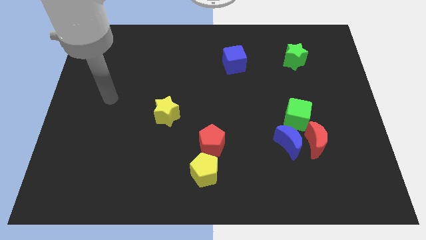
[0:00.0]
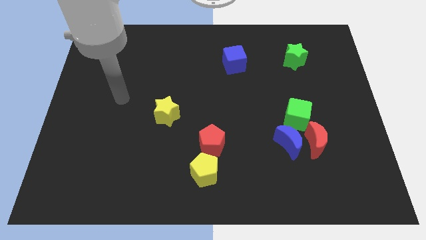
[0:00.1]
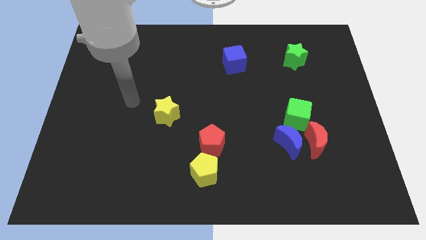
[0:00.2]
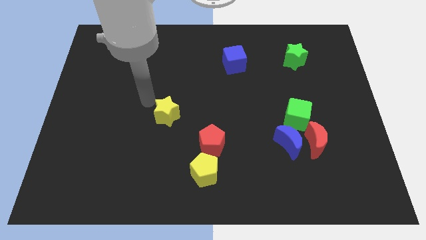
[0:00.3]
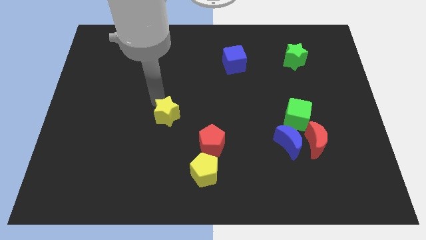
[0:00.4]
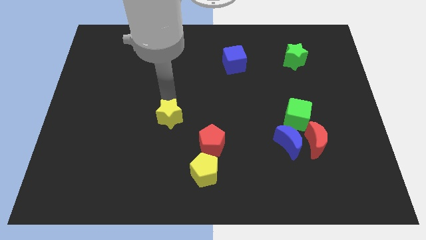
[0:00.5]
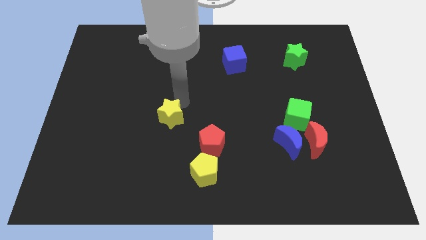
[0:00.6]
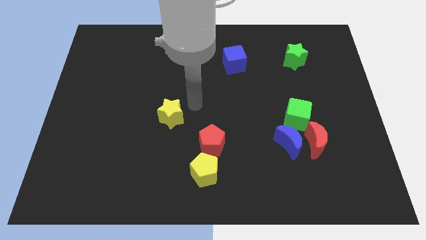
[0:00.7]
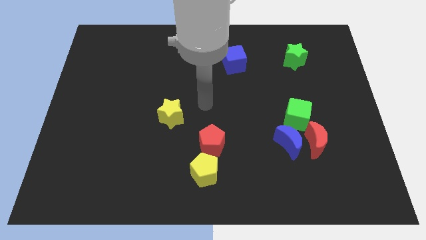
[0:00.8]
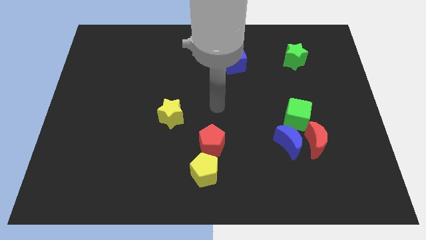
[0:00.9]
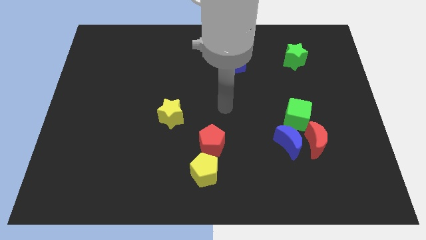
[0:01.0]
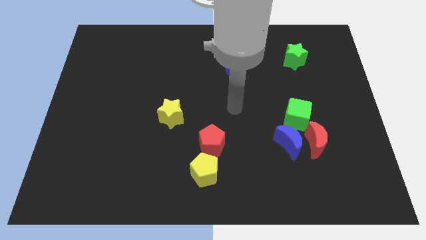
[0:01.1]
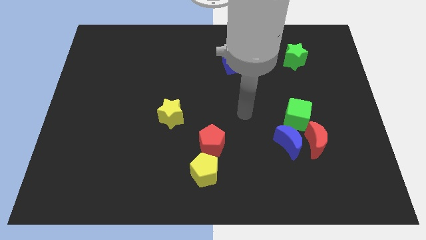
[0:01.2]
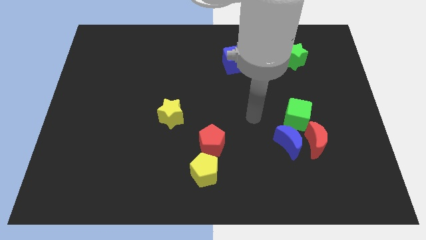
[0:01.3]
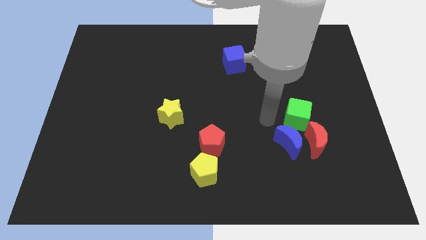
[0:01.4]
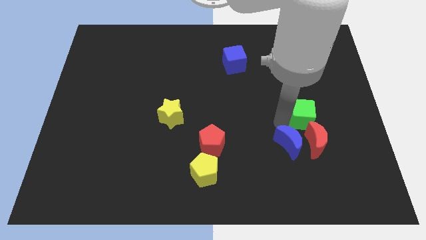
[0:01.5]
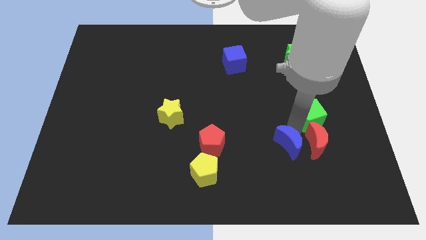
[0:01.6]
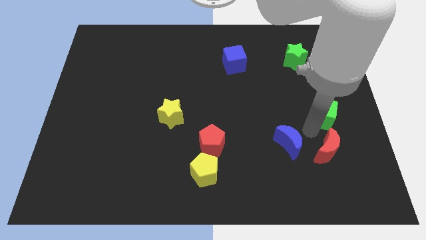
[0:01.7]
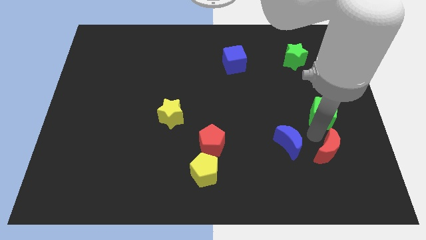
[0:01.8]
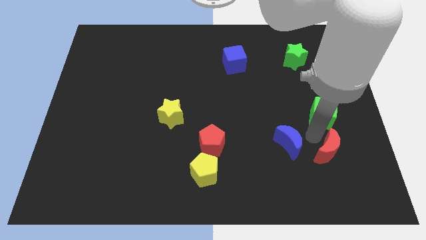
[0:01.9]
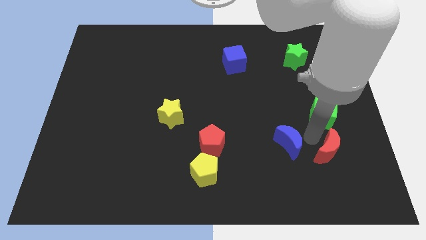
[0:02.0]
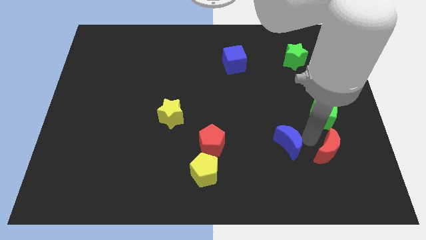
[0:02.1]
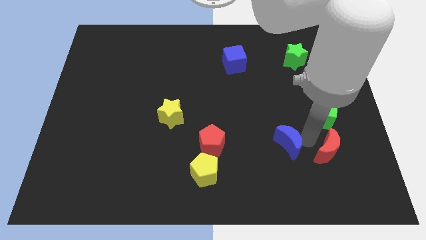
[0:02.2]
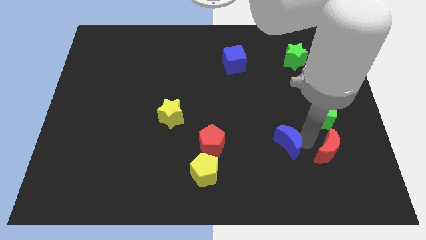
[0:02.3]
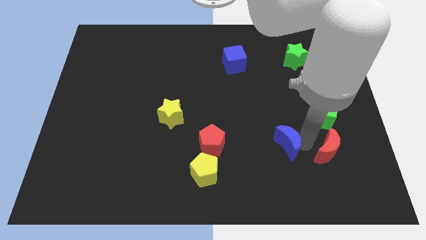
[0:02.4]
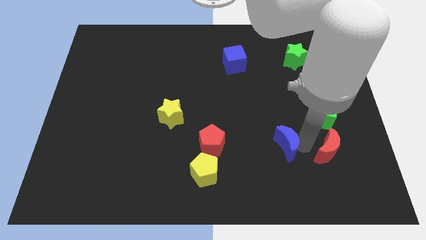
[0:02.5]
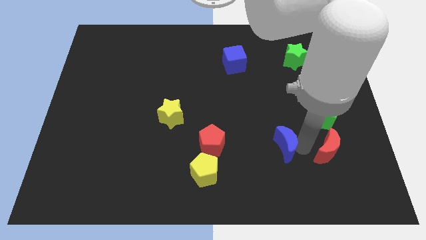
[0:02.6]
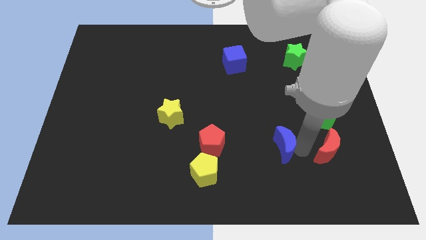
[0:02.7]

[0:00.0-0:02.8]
separate the blue moon from the red moon and green cube

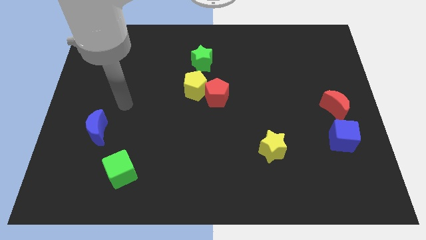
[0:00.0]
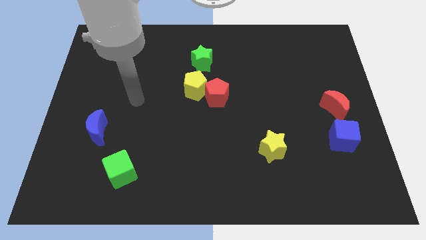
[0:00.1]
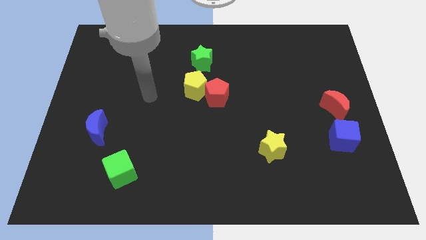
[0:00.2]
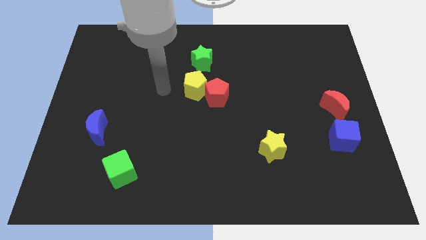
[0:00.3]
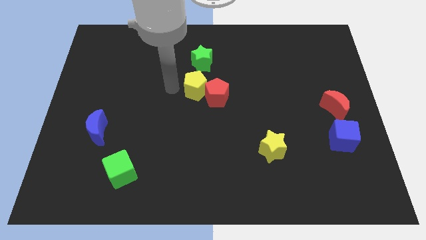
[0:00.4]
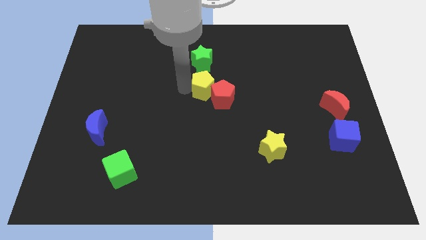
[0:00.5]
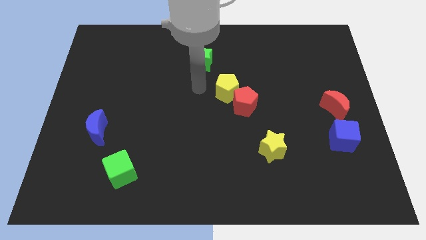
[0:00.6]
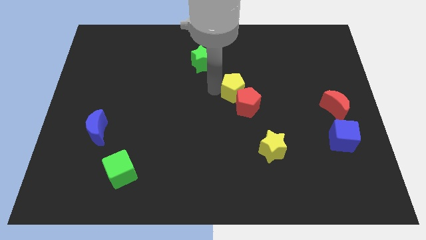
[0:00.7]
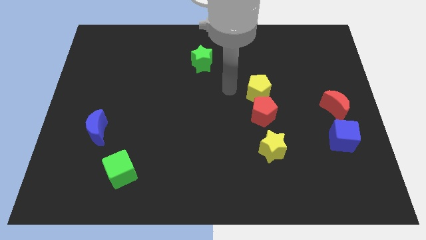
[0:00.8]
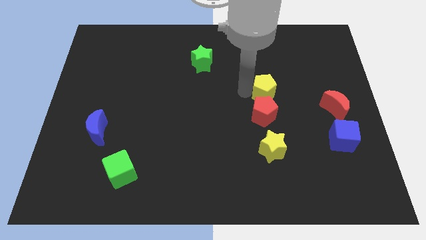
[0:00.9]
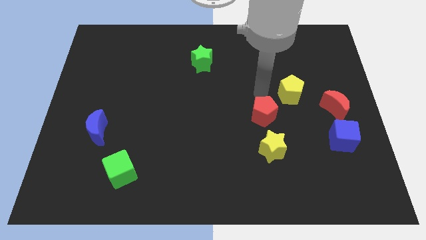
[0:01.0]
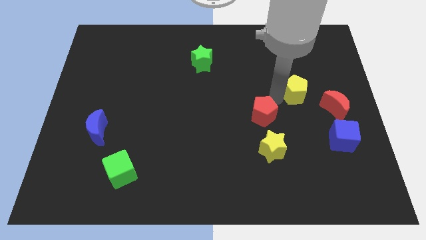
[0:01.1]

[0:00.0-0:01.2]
pull the red pentagon apart from the yellow pentagon

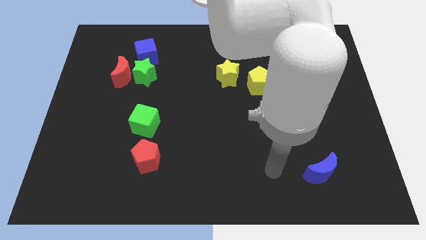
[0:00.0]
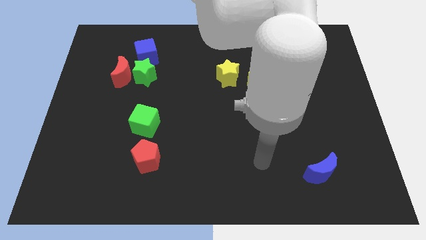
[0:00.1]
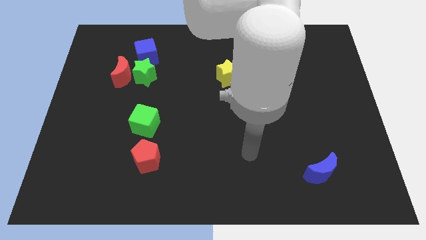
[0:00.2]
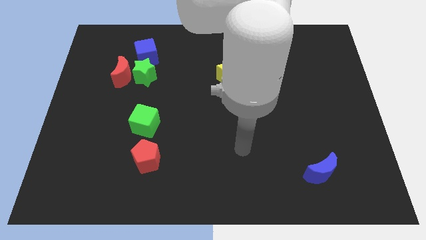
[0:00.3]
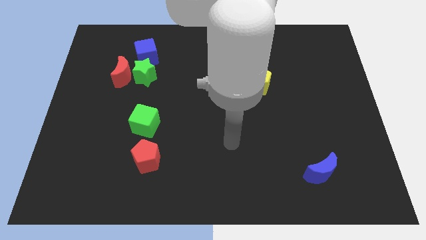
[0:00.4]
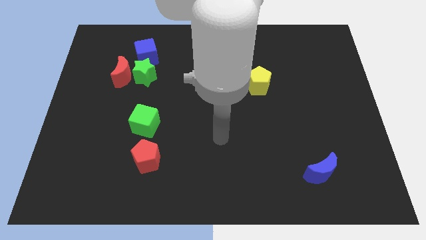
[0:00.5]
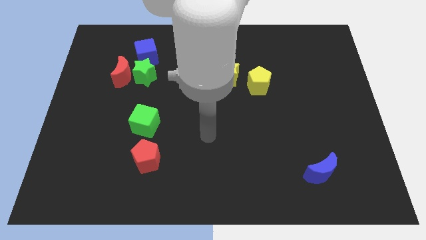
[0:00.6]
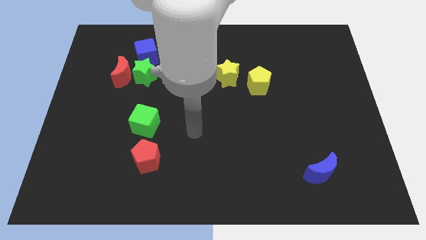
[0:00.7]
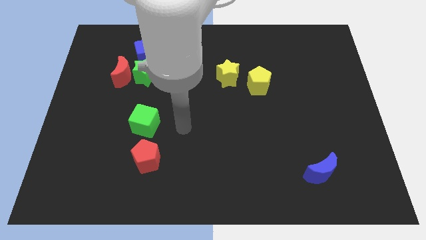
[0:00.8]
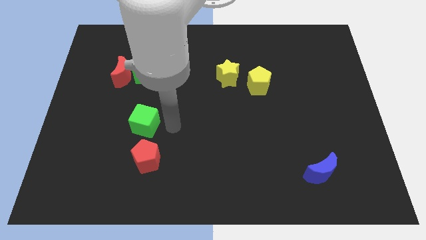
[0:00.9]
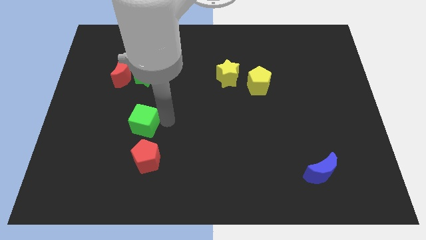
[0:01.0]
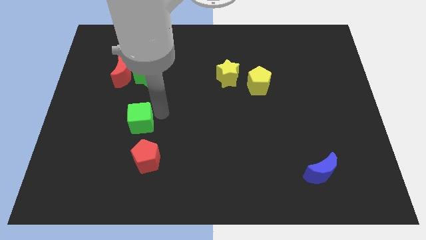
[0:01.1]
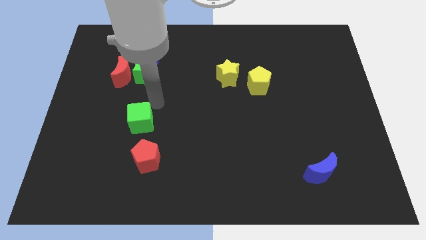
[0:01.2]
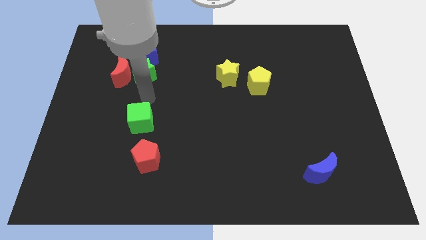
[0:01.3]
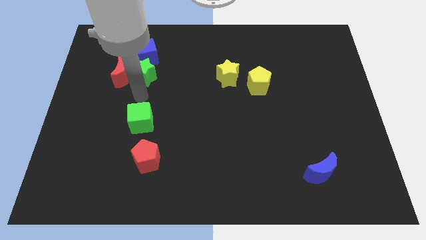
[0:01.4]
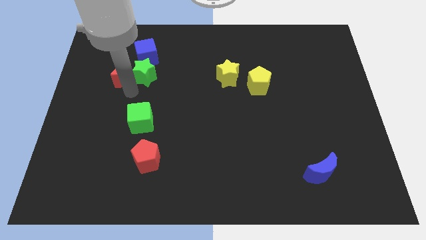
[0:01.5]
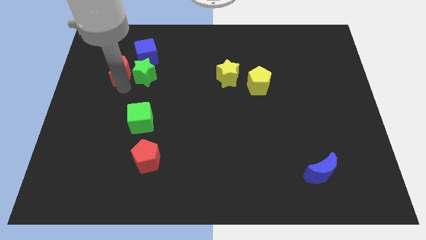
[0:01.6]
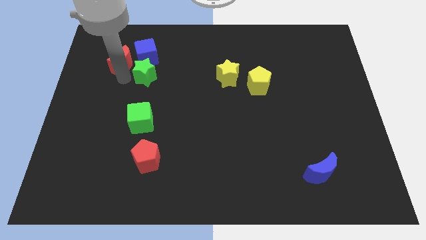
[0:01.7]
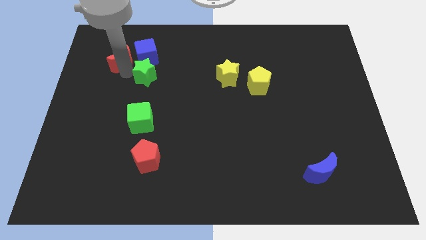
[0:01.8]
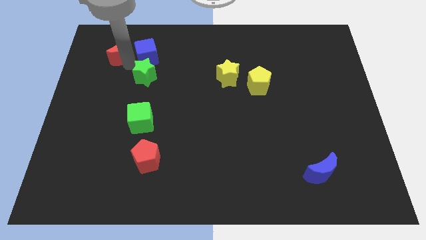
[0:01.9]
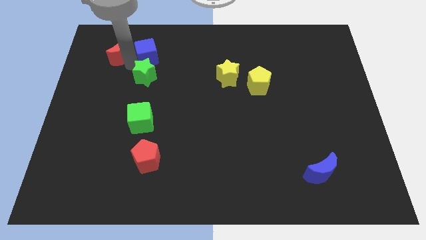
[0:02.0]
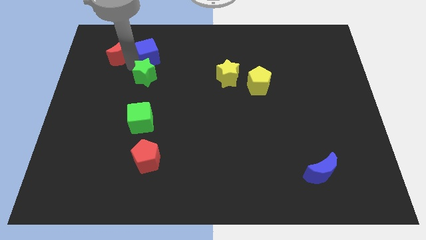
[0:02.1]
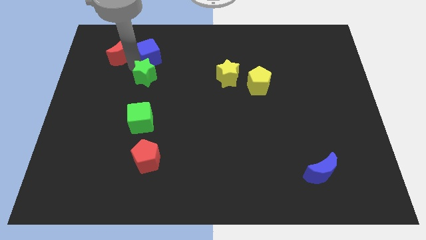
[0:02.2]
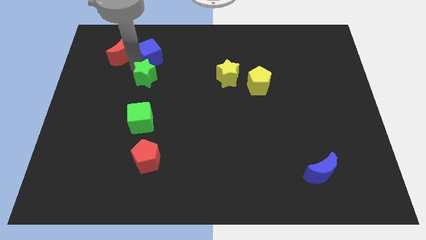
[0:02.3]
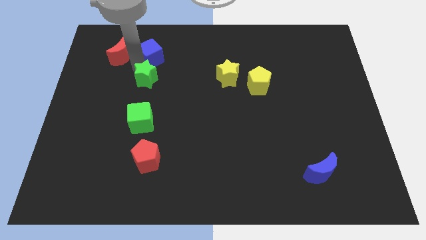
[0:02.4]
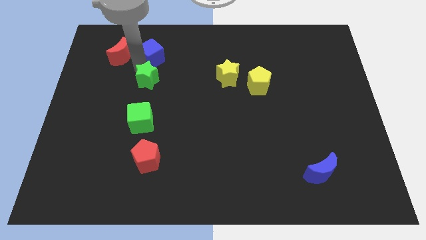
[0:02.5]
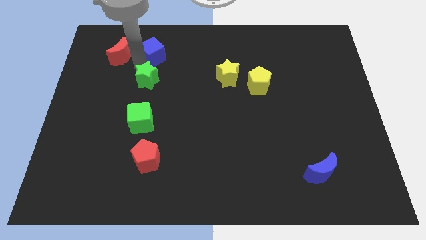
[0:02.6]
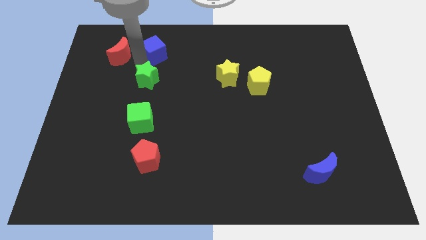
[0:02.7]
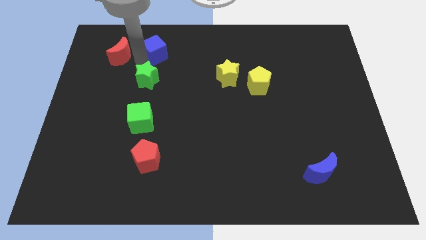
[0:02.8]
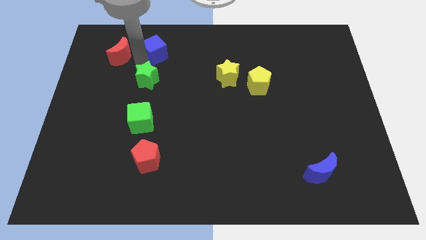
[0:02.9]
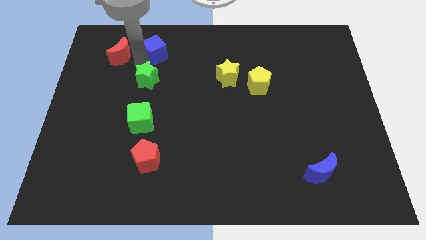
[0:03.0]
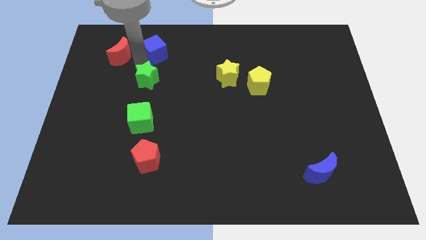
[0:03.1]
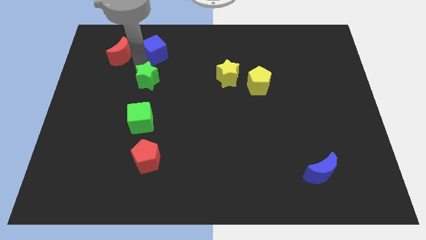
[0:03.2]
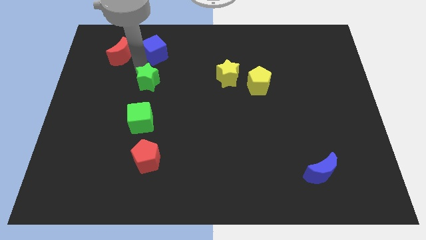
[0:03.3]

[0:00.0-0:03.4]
move the green star away from the red moon and blue cube

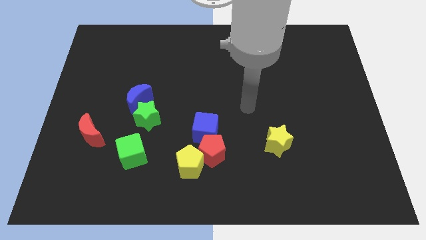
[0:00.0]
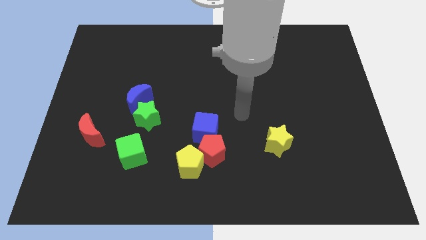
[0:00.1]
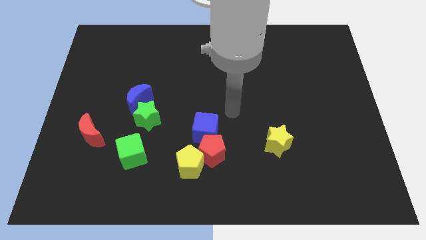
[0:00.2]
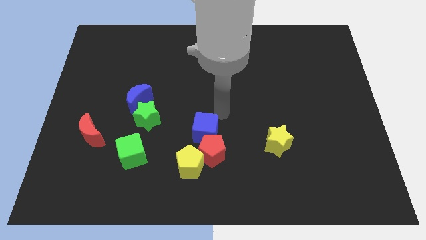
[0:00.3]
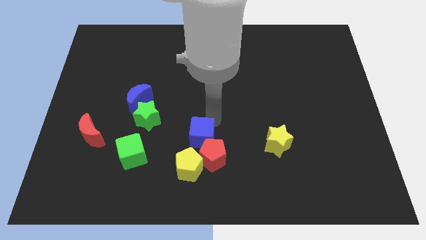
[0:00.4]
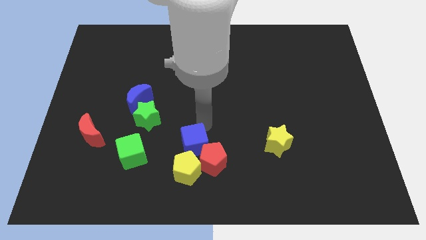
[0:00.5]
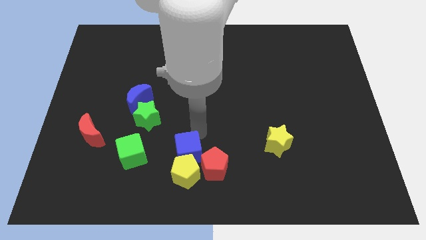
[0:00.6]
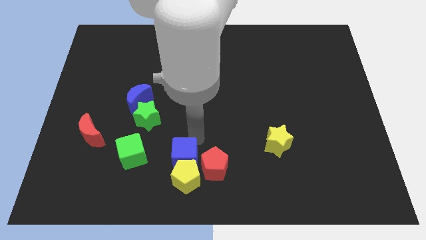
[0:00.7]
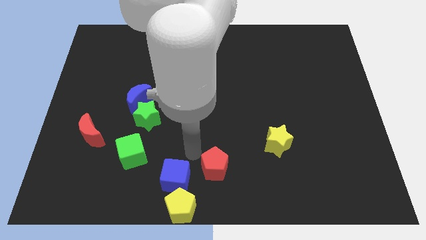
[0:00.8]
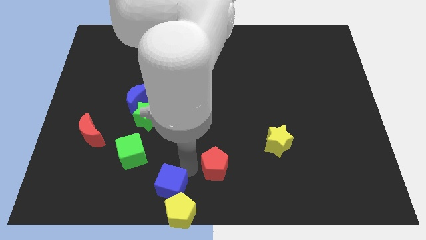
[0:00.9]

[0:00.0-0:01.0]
separate the red pentagon from the yellow pentagon and blue cube

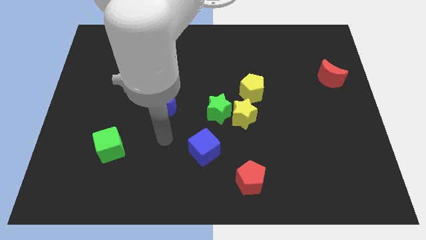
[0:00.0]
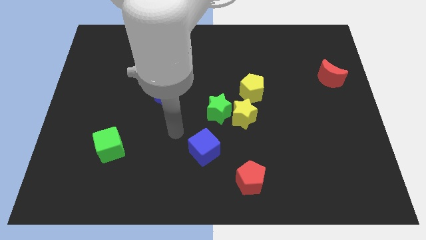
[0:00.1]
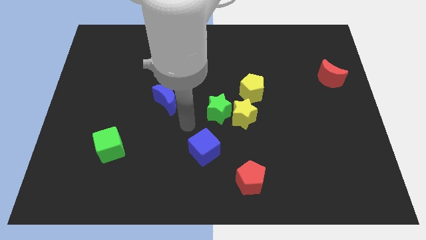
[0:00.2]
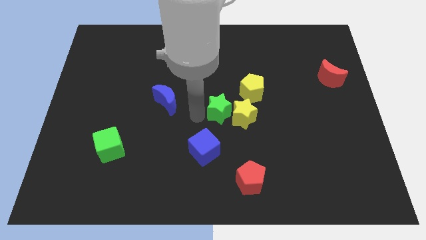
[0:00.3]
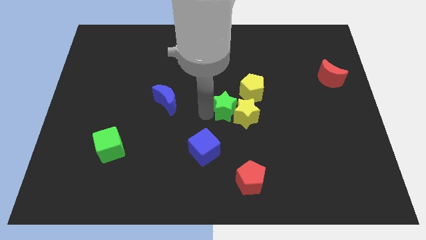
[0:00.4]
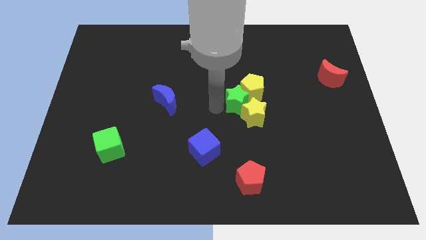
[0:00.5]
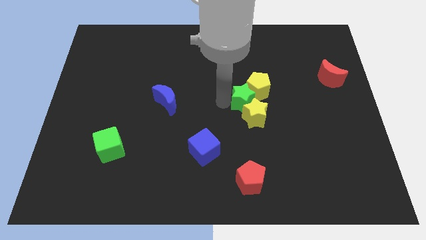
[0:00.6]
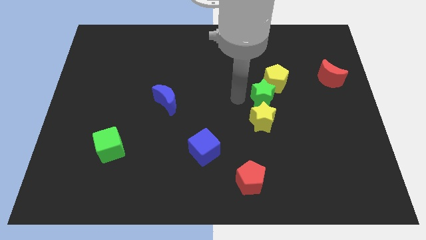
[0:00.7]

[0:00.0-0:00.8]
move the yellow star away from the green star and yellow pentagon
